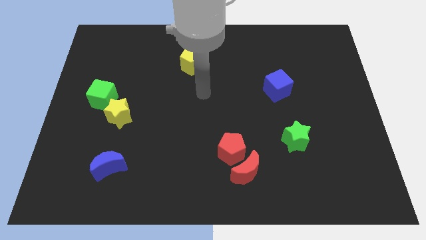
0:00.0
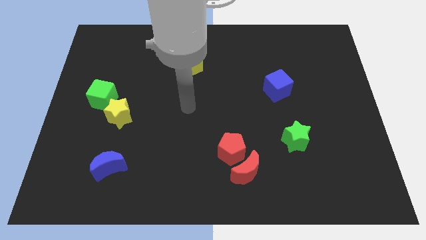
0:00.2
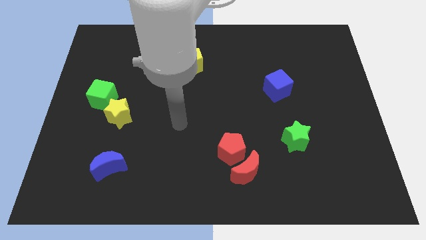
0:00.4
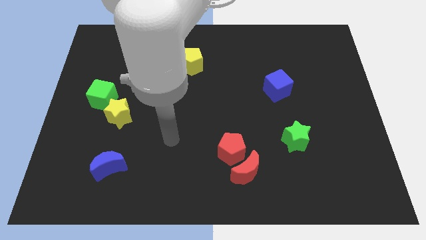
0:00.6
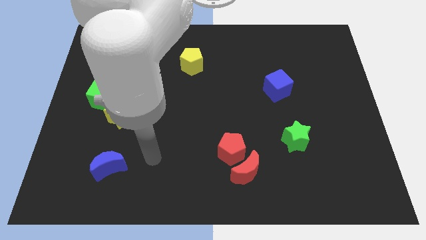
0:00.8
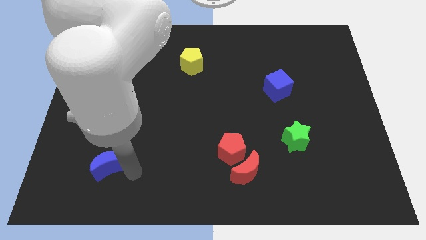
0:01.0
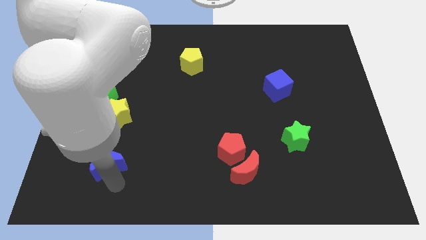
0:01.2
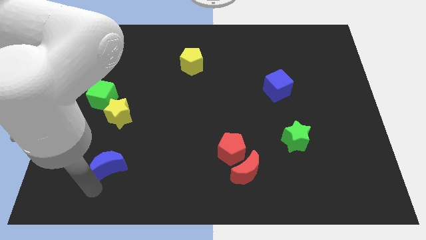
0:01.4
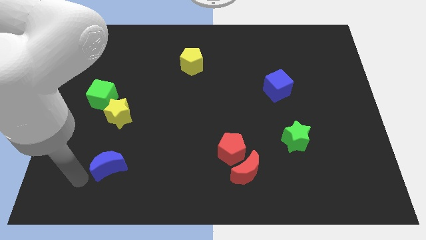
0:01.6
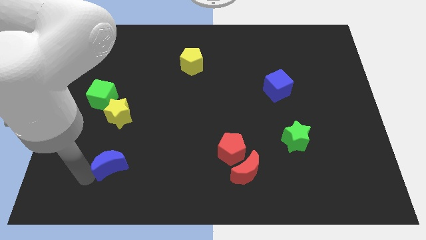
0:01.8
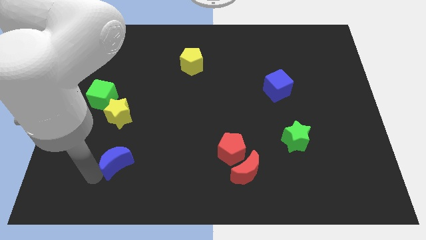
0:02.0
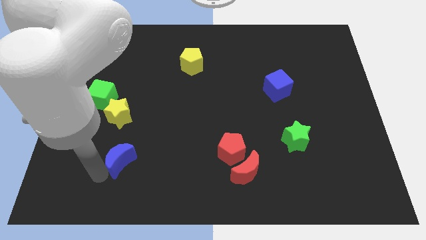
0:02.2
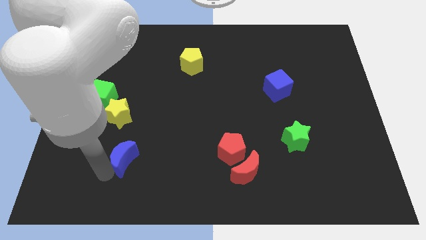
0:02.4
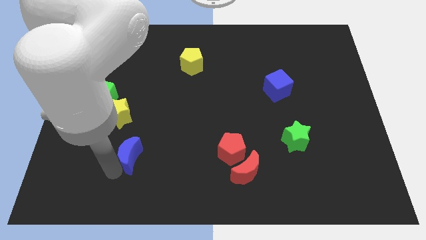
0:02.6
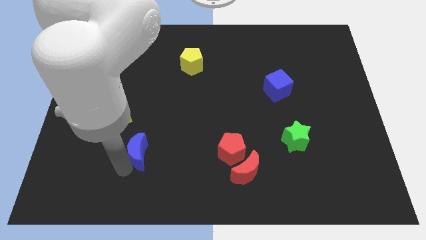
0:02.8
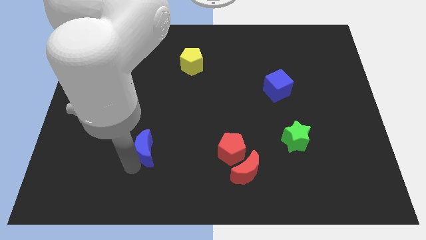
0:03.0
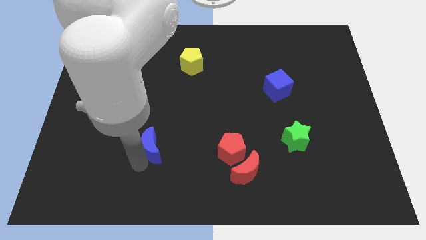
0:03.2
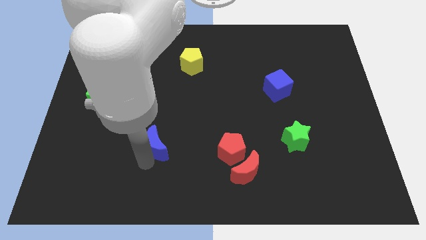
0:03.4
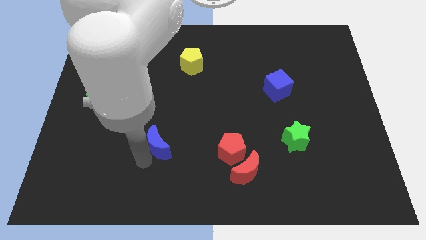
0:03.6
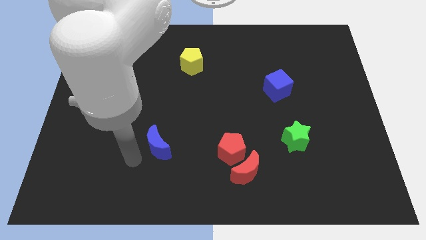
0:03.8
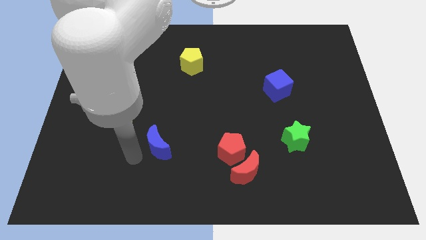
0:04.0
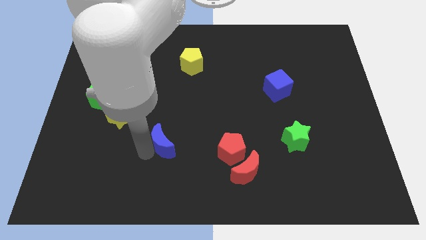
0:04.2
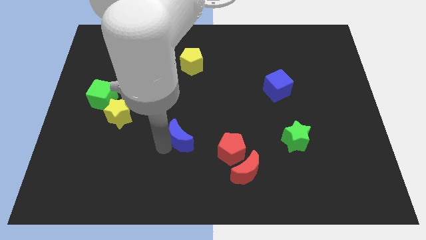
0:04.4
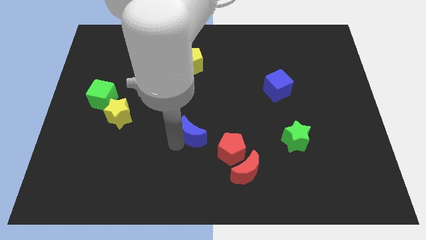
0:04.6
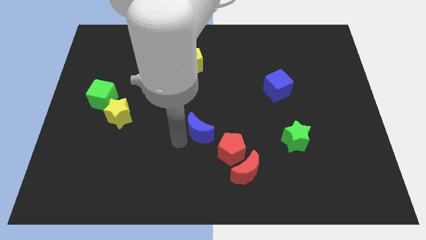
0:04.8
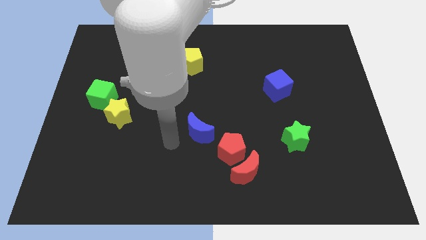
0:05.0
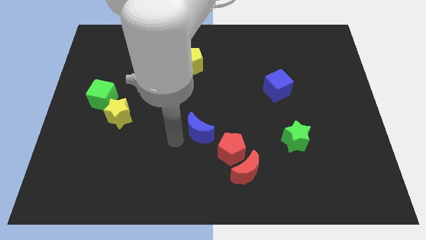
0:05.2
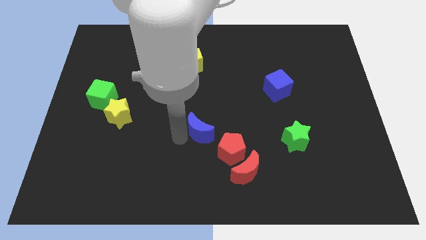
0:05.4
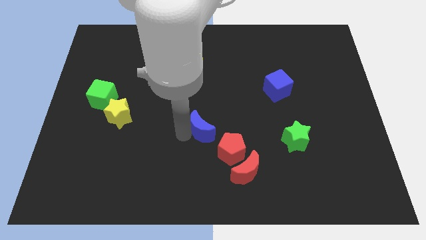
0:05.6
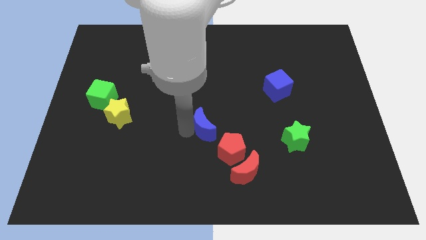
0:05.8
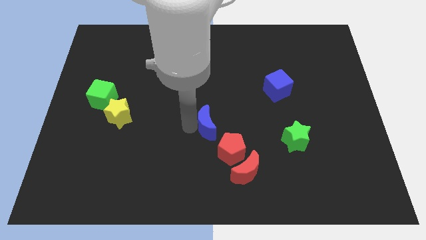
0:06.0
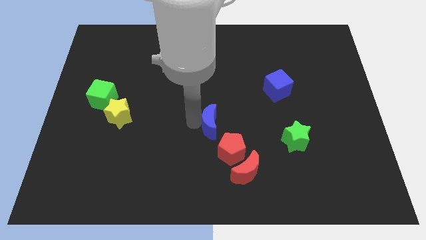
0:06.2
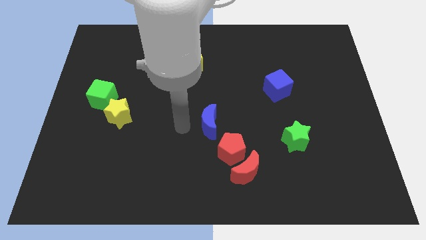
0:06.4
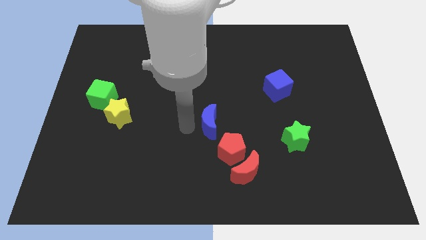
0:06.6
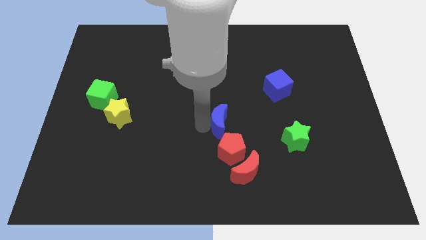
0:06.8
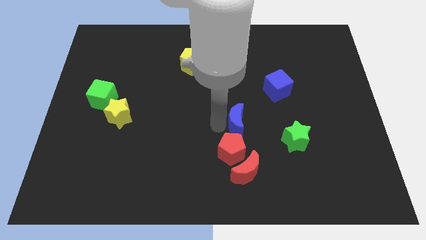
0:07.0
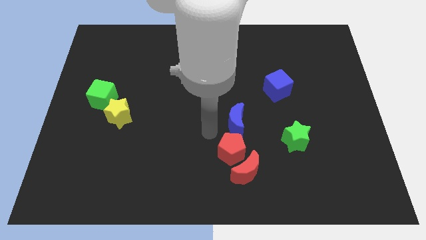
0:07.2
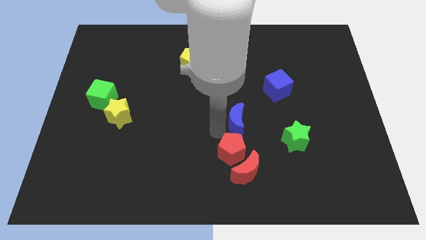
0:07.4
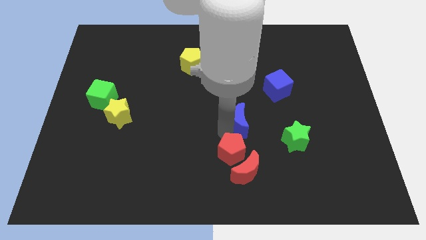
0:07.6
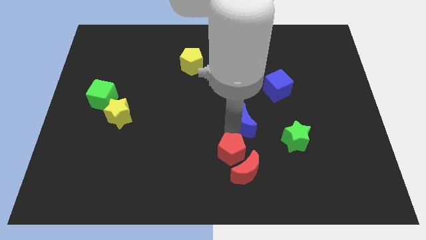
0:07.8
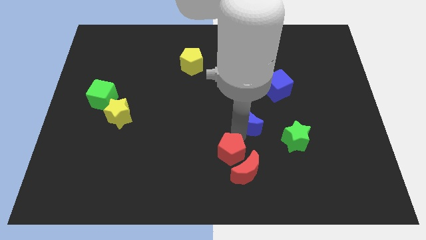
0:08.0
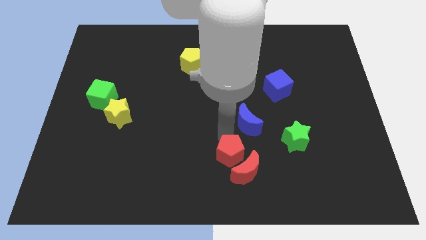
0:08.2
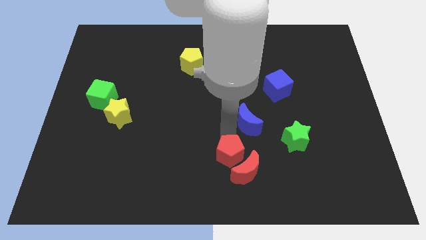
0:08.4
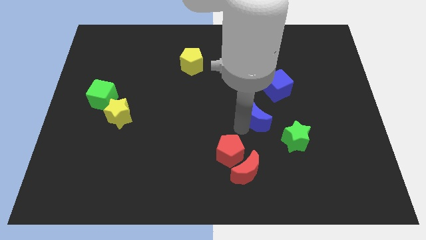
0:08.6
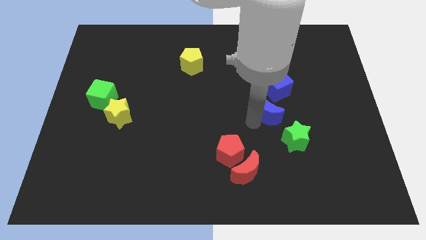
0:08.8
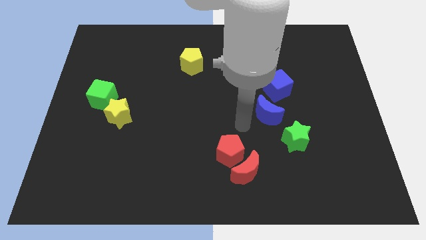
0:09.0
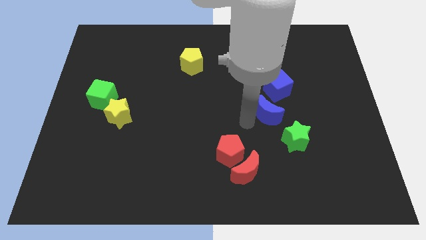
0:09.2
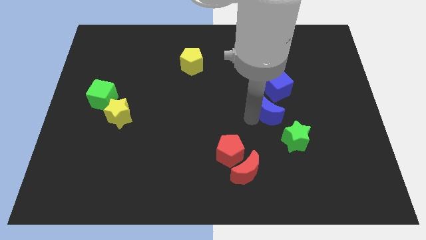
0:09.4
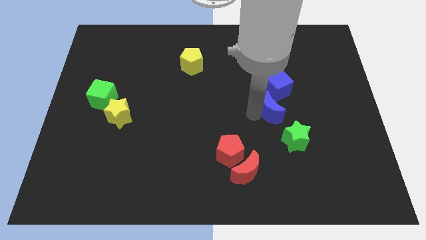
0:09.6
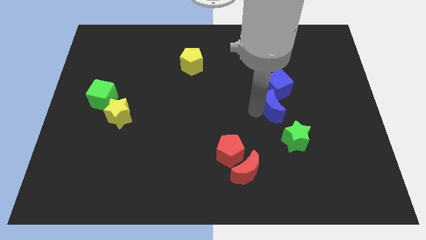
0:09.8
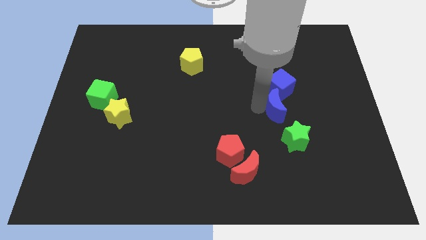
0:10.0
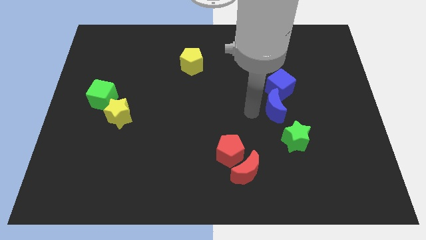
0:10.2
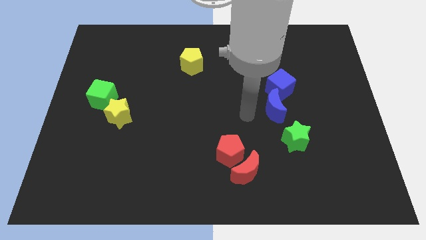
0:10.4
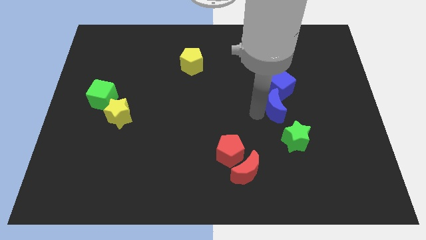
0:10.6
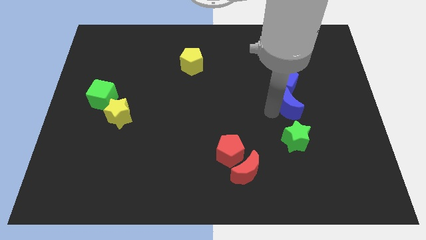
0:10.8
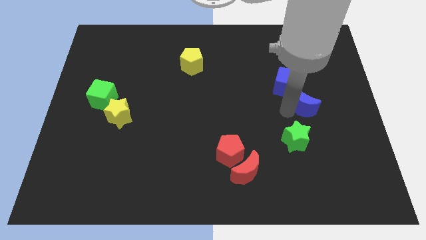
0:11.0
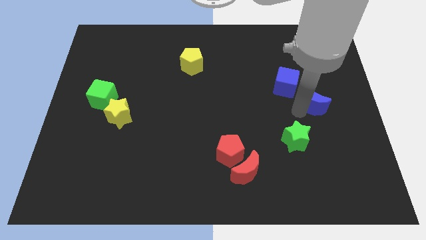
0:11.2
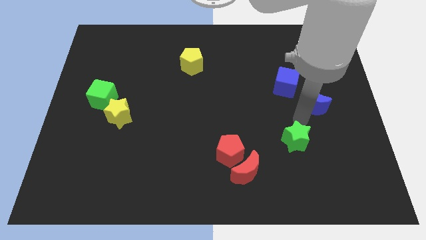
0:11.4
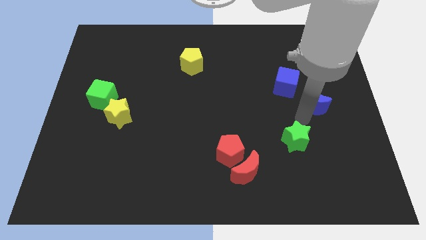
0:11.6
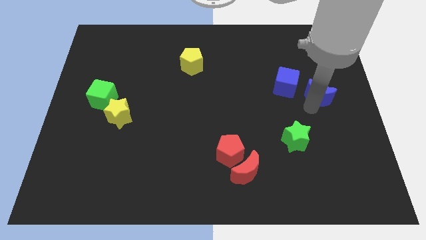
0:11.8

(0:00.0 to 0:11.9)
push the blue moon right of the blue cube
